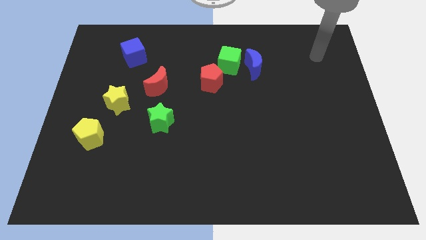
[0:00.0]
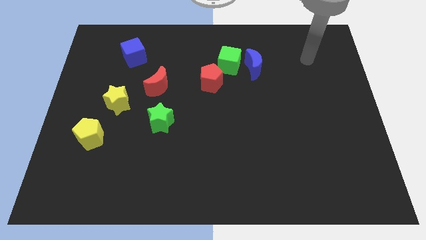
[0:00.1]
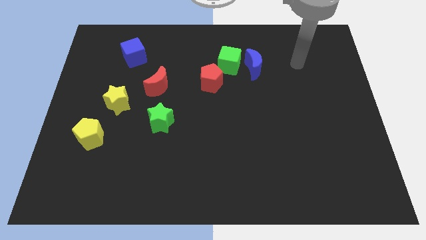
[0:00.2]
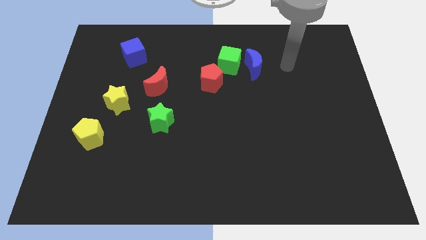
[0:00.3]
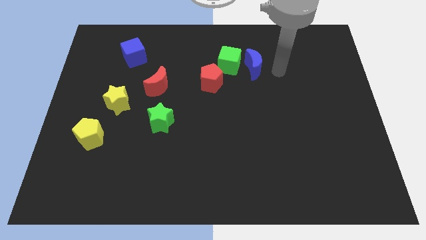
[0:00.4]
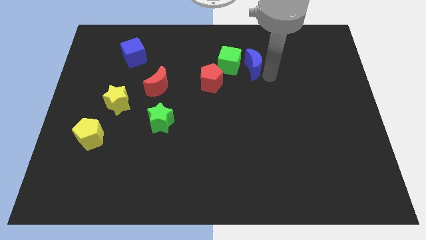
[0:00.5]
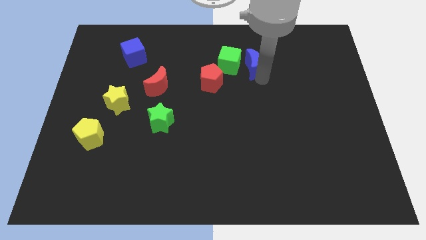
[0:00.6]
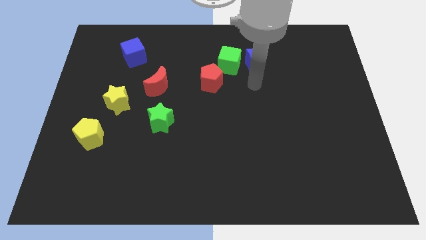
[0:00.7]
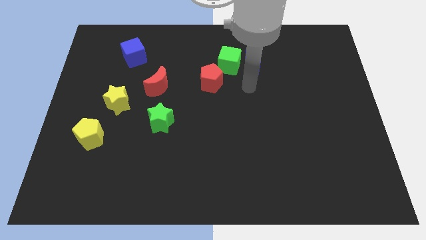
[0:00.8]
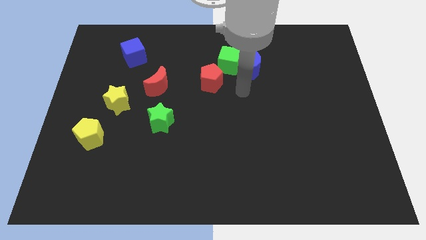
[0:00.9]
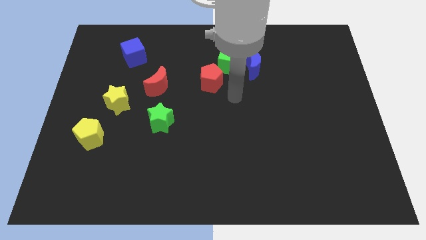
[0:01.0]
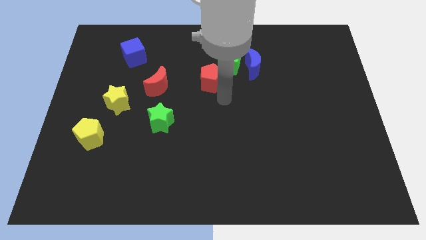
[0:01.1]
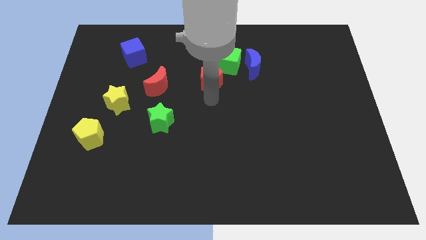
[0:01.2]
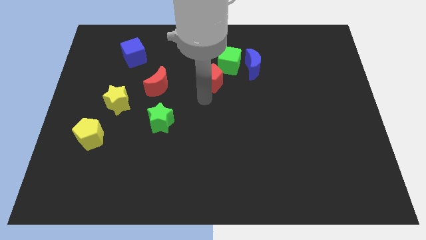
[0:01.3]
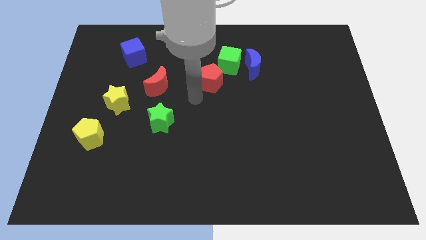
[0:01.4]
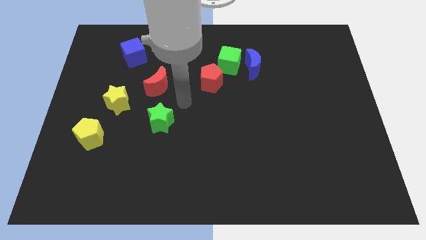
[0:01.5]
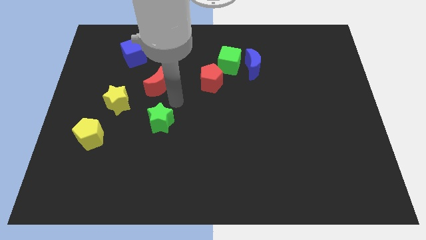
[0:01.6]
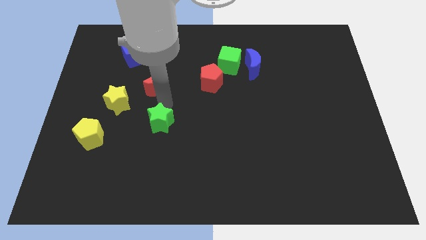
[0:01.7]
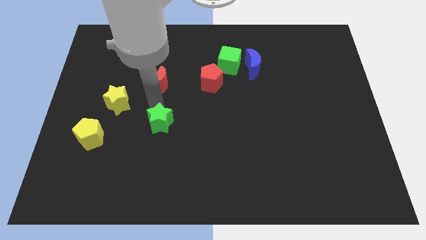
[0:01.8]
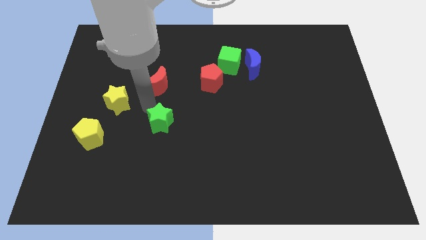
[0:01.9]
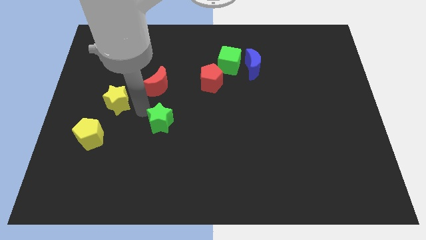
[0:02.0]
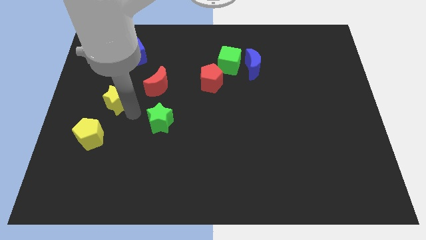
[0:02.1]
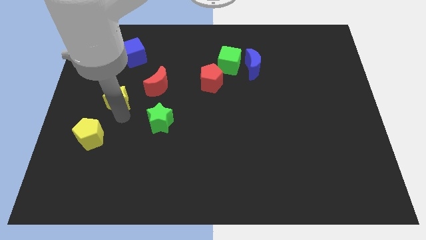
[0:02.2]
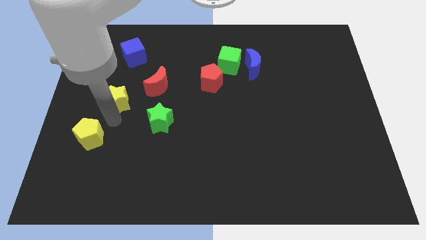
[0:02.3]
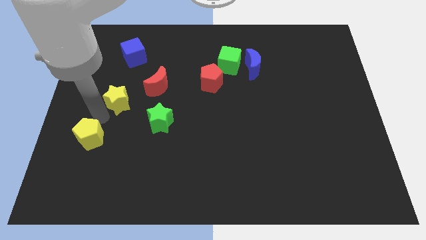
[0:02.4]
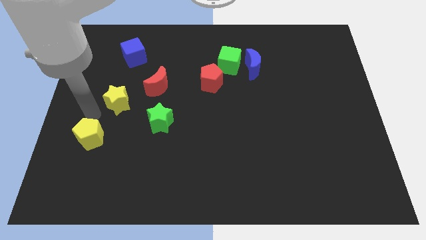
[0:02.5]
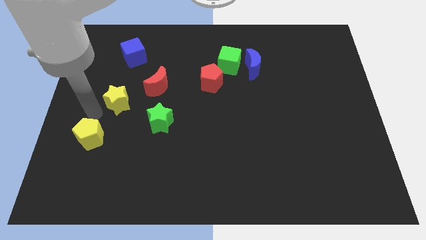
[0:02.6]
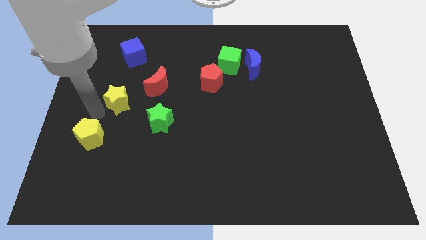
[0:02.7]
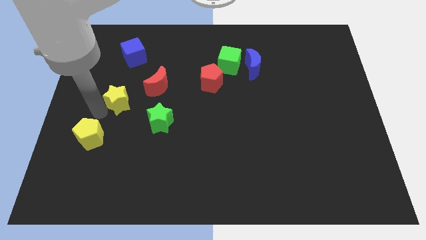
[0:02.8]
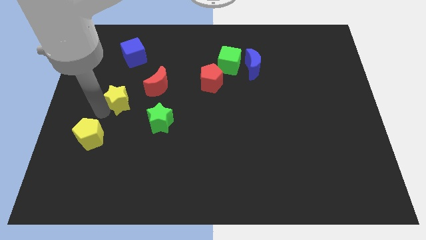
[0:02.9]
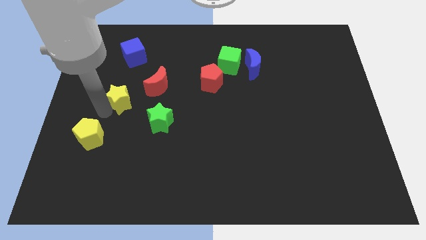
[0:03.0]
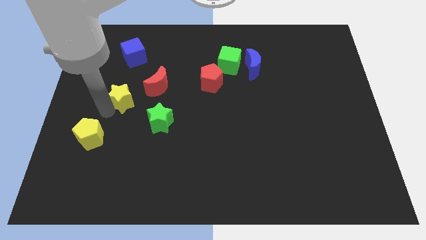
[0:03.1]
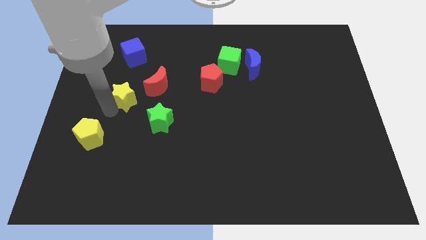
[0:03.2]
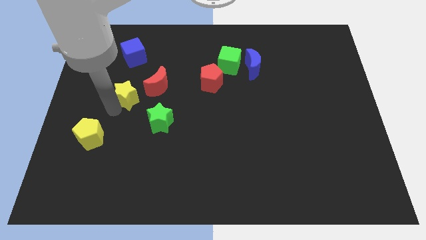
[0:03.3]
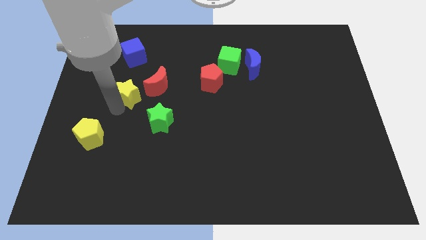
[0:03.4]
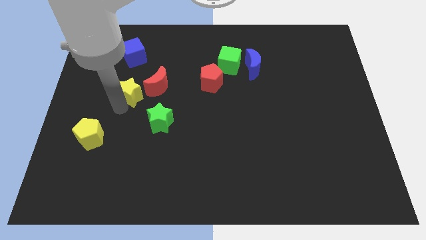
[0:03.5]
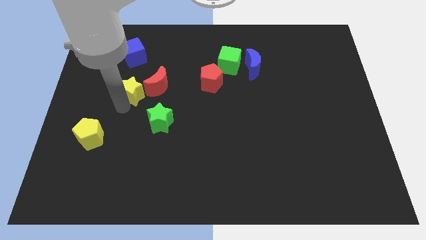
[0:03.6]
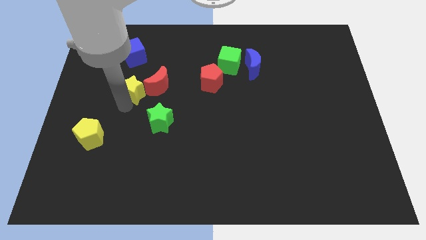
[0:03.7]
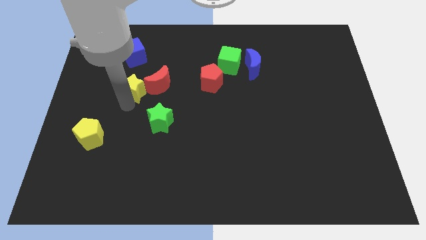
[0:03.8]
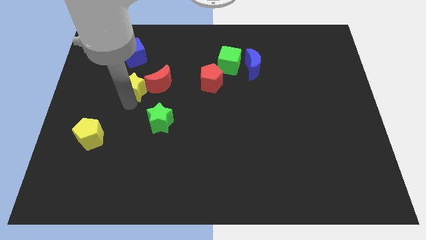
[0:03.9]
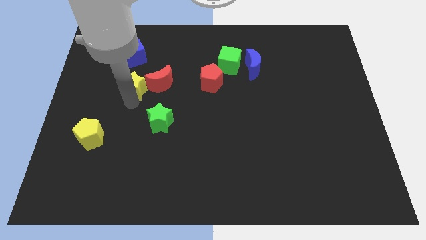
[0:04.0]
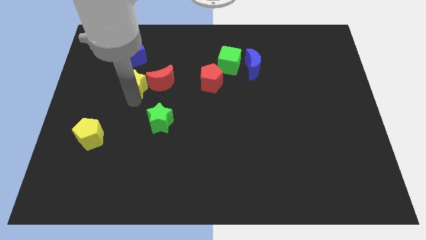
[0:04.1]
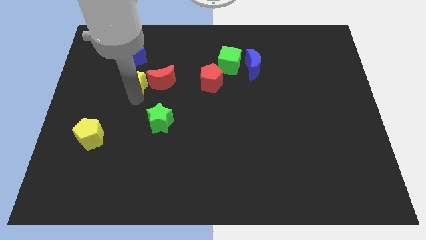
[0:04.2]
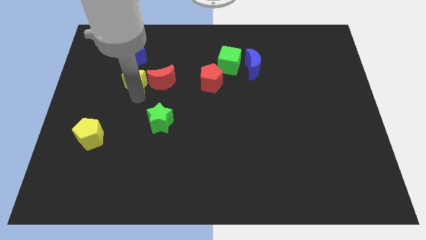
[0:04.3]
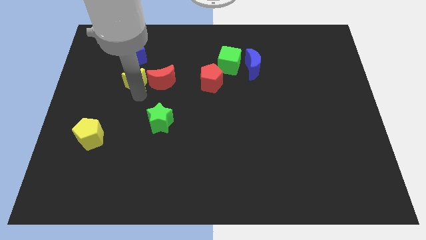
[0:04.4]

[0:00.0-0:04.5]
move the yellow star a little up and then right

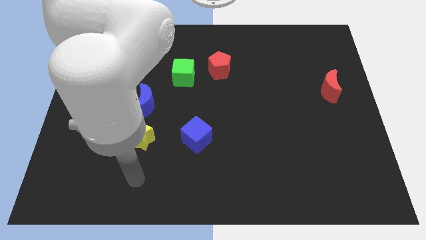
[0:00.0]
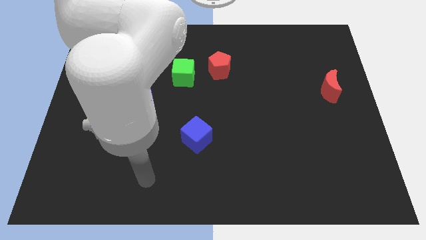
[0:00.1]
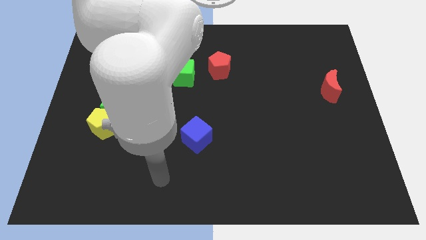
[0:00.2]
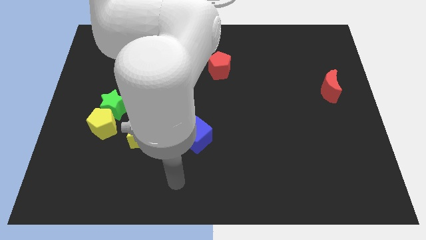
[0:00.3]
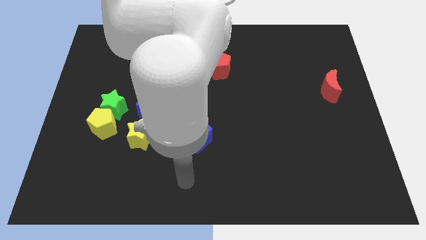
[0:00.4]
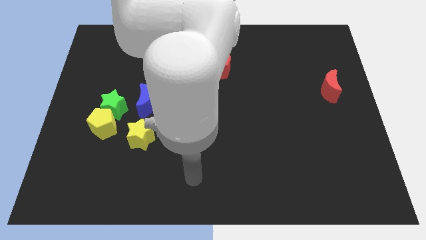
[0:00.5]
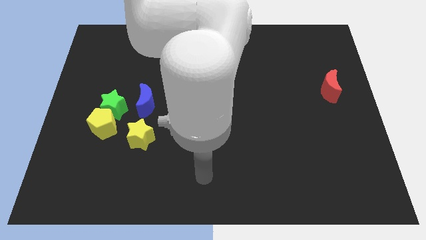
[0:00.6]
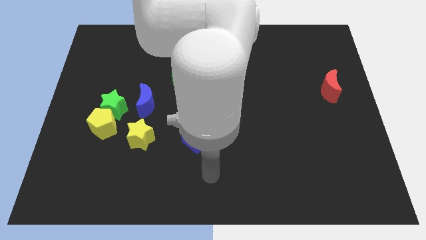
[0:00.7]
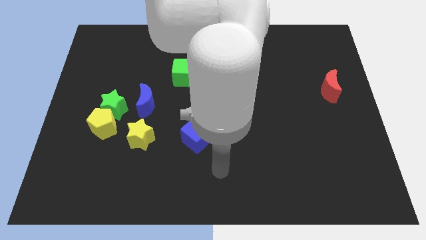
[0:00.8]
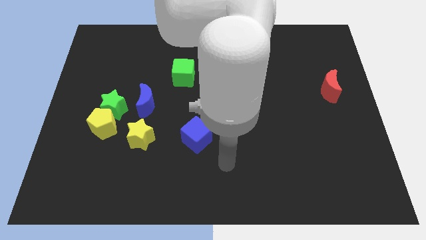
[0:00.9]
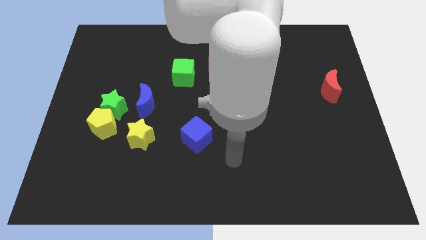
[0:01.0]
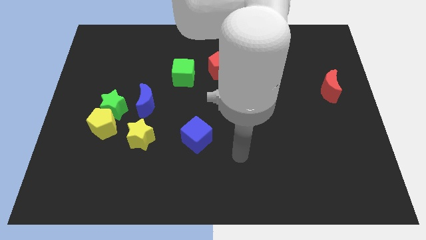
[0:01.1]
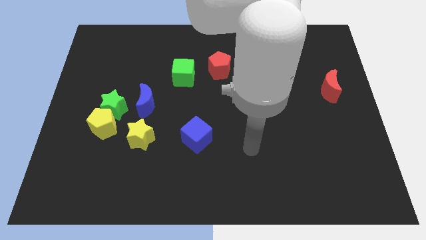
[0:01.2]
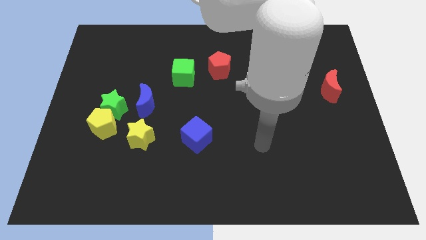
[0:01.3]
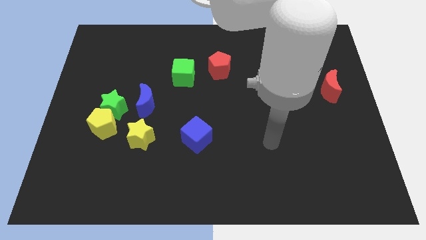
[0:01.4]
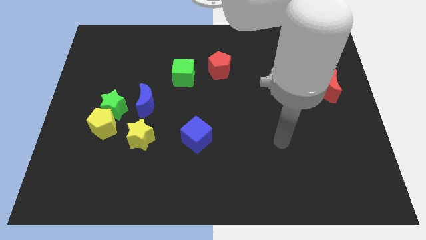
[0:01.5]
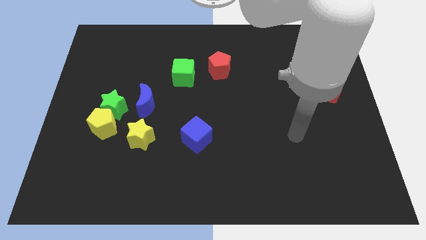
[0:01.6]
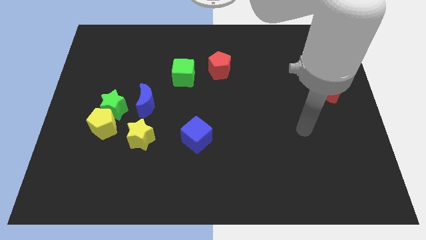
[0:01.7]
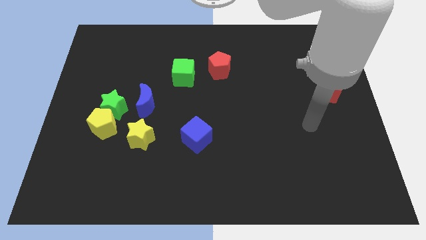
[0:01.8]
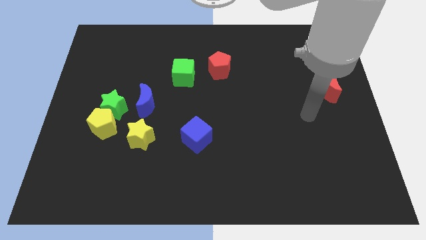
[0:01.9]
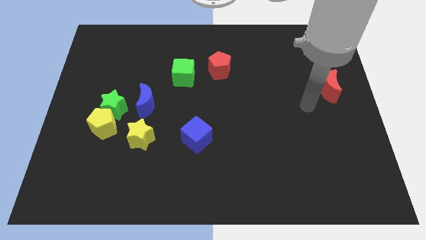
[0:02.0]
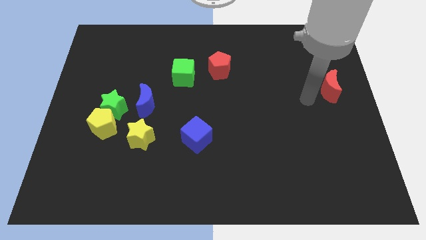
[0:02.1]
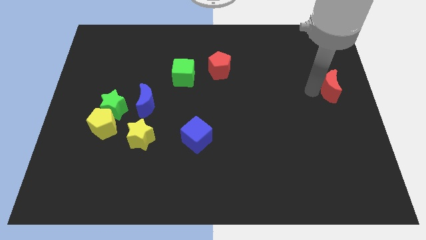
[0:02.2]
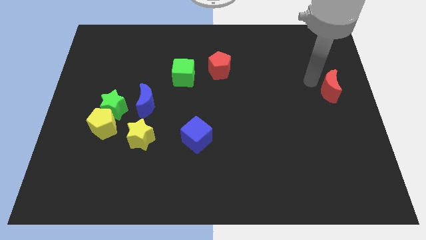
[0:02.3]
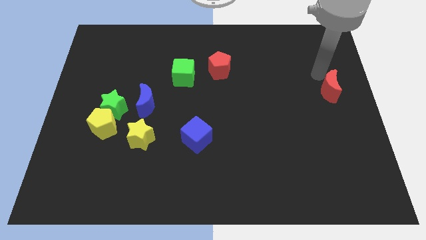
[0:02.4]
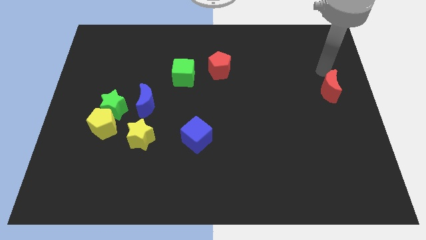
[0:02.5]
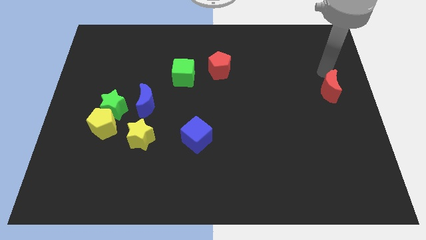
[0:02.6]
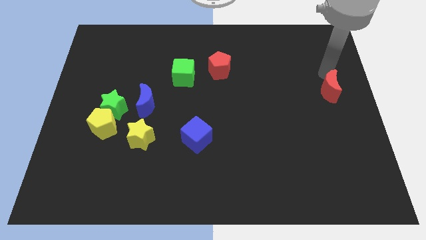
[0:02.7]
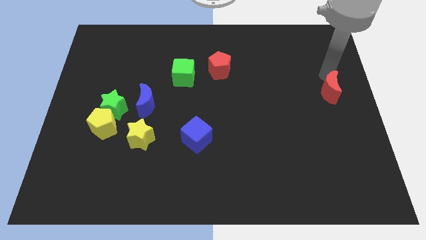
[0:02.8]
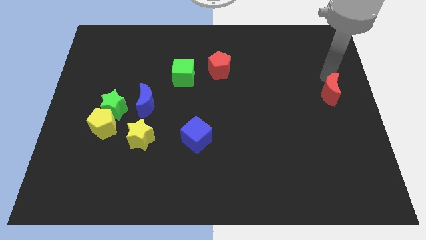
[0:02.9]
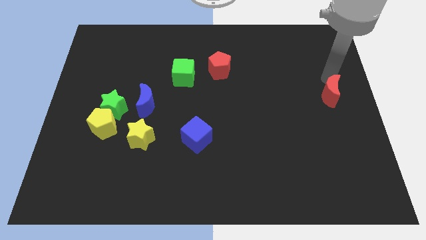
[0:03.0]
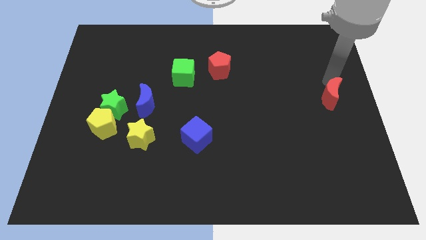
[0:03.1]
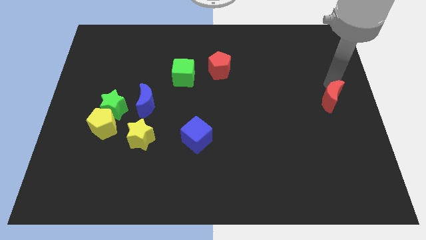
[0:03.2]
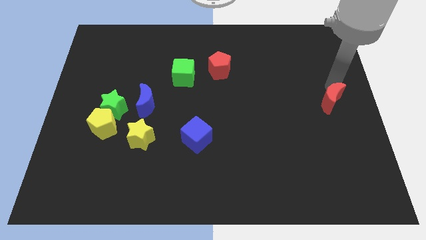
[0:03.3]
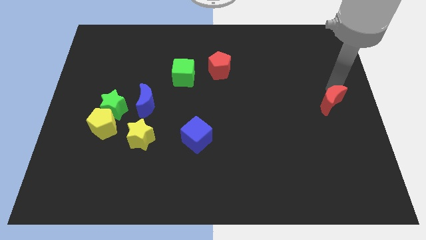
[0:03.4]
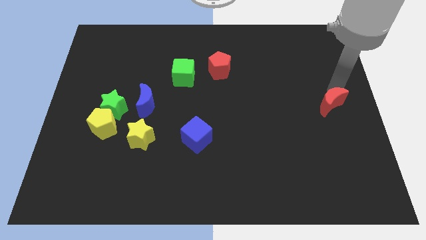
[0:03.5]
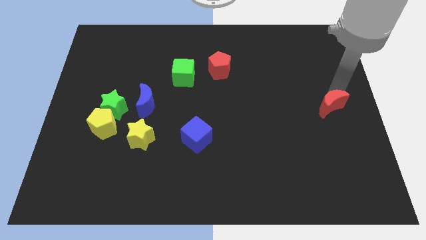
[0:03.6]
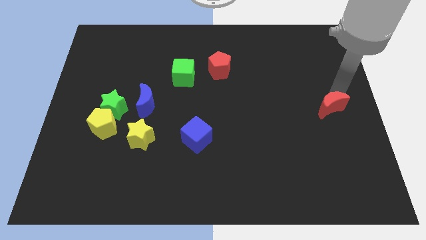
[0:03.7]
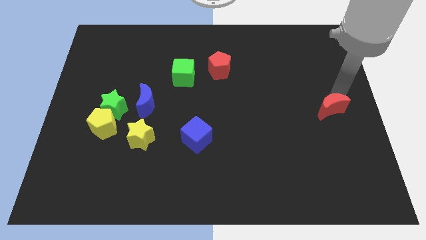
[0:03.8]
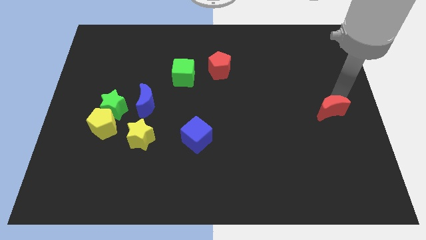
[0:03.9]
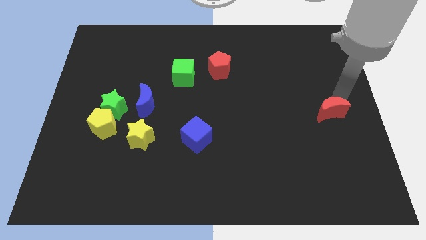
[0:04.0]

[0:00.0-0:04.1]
slide the red moon somewhat downwards
